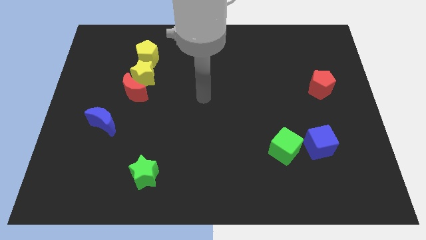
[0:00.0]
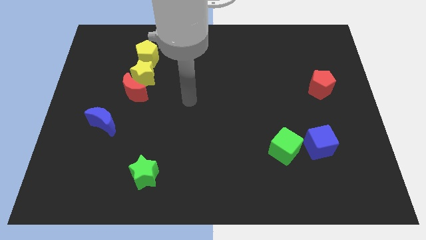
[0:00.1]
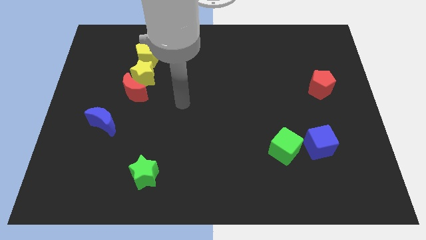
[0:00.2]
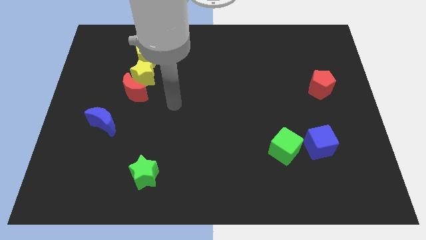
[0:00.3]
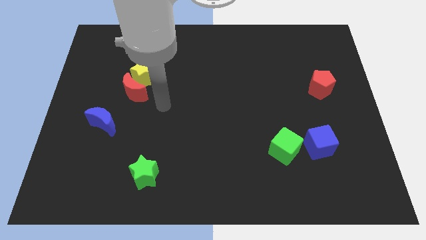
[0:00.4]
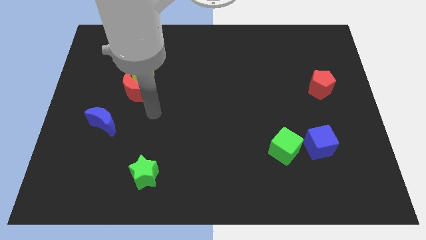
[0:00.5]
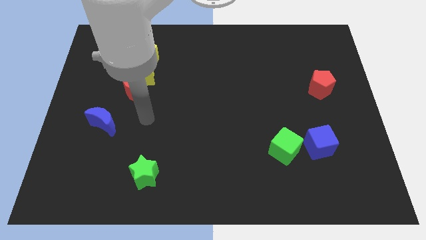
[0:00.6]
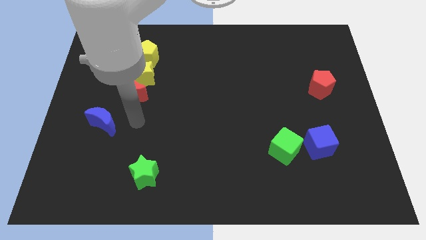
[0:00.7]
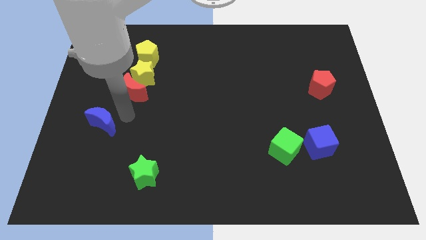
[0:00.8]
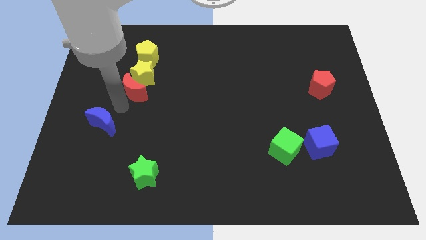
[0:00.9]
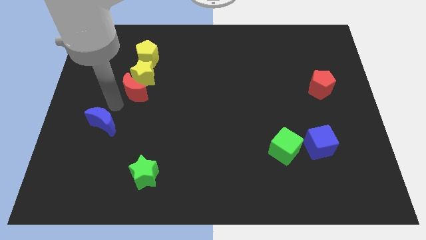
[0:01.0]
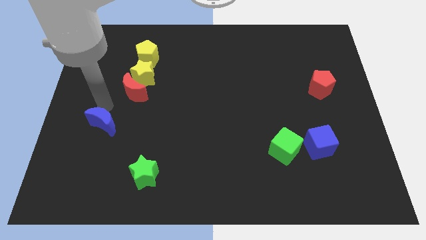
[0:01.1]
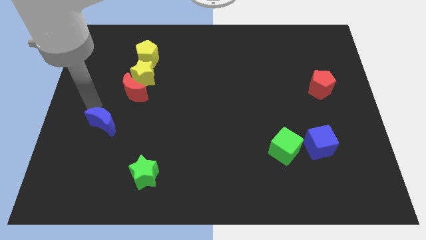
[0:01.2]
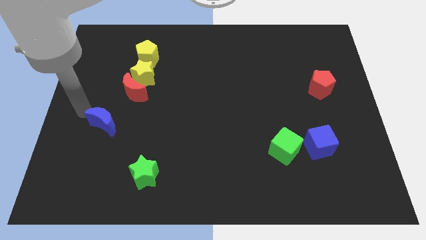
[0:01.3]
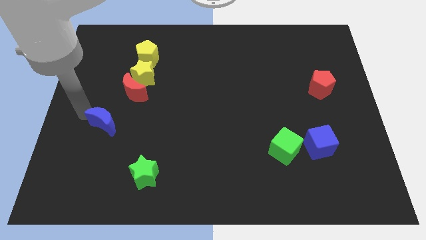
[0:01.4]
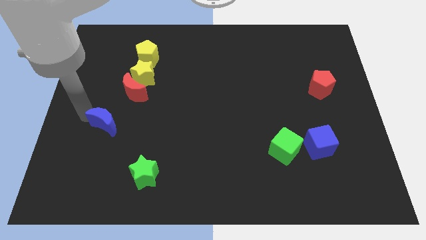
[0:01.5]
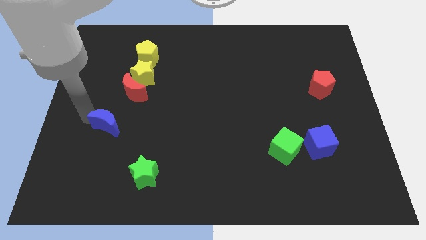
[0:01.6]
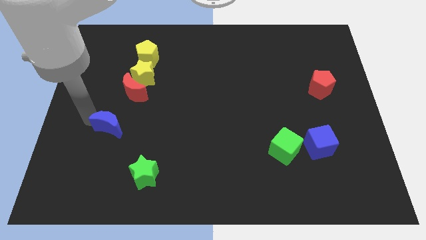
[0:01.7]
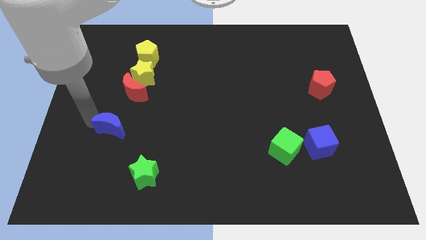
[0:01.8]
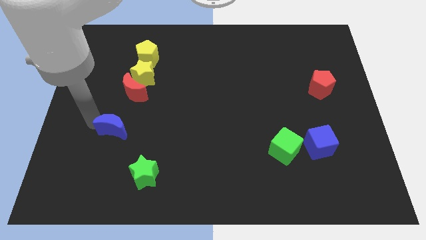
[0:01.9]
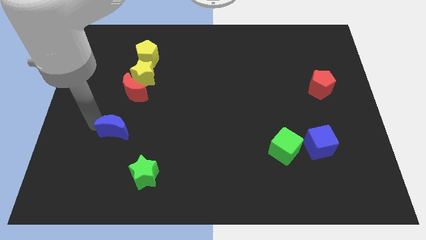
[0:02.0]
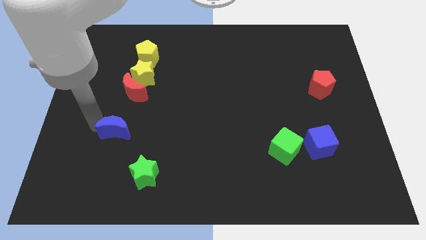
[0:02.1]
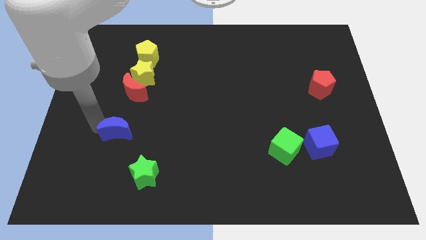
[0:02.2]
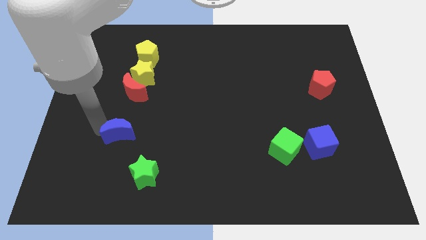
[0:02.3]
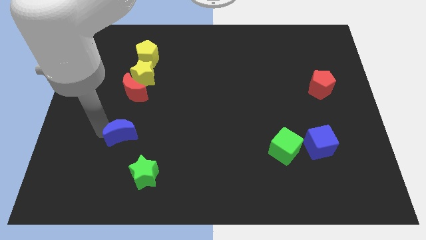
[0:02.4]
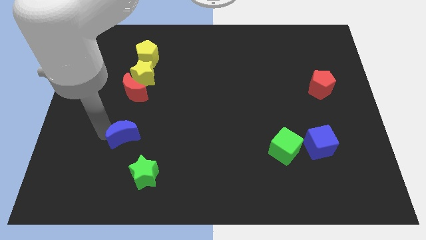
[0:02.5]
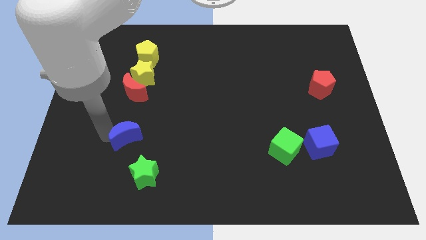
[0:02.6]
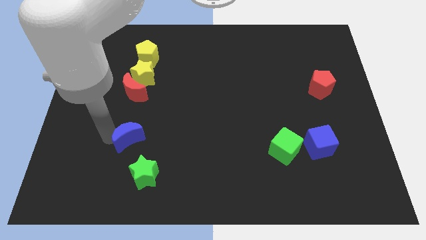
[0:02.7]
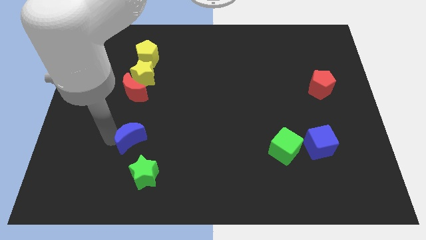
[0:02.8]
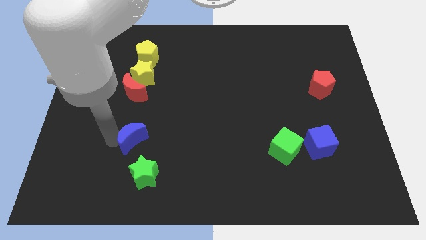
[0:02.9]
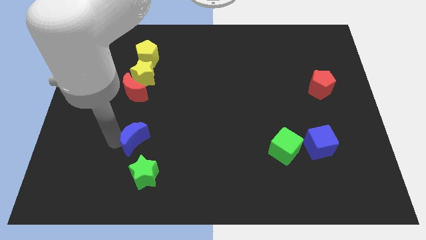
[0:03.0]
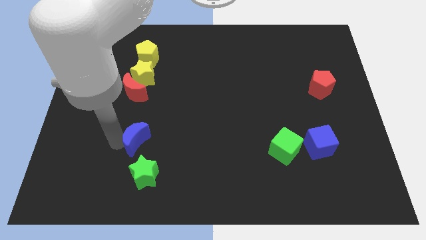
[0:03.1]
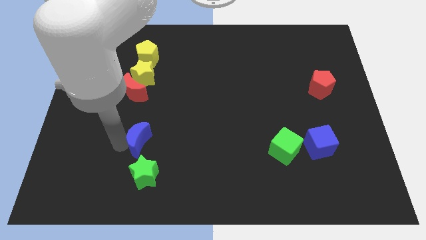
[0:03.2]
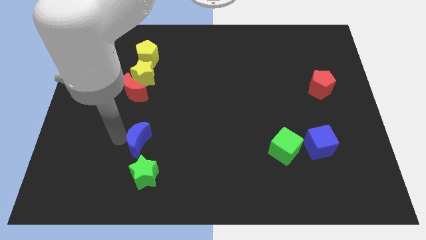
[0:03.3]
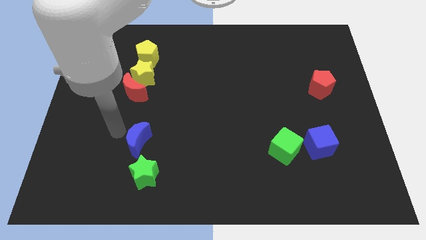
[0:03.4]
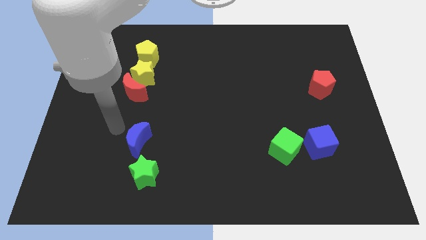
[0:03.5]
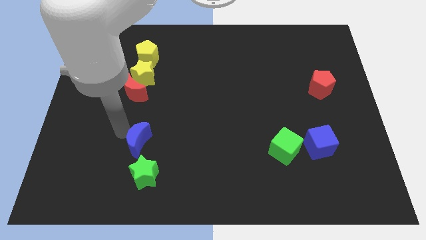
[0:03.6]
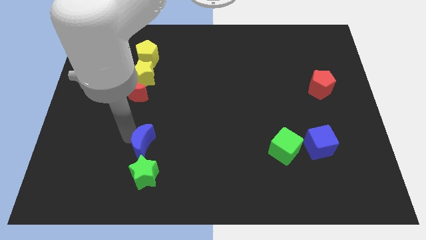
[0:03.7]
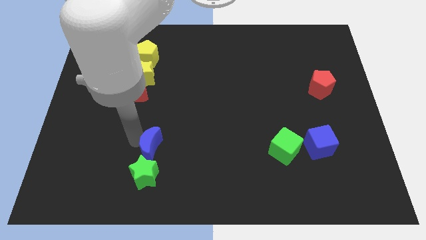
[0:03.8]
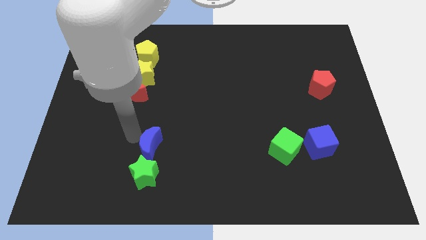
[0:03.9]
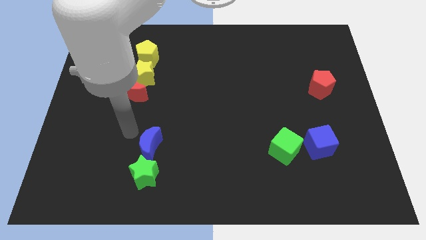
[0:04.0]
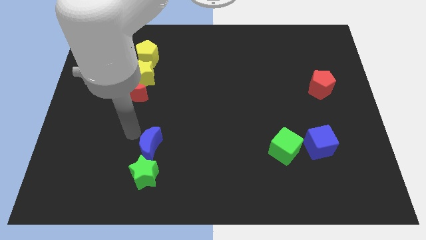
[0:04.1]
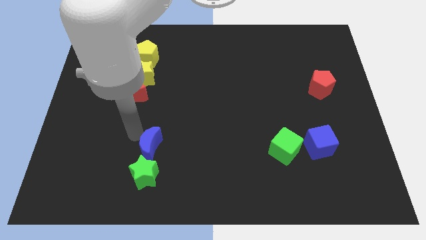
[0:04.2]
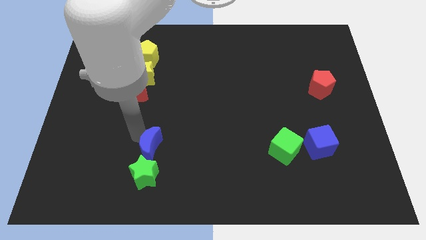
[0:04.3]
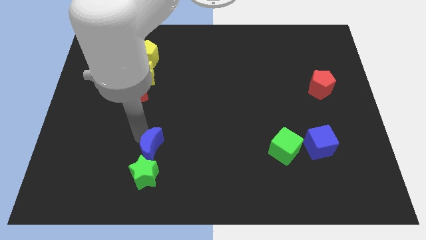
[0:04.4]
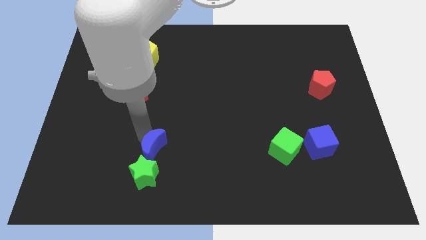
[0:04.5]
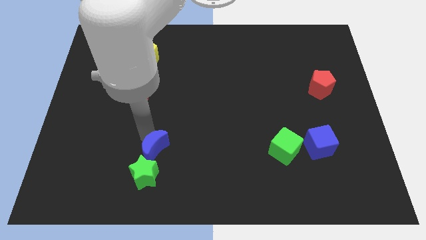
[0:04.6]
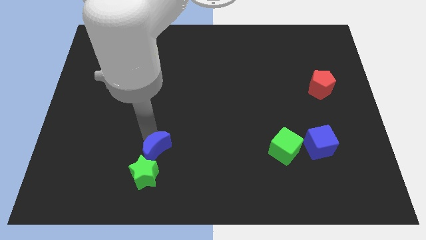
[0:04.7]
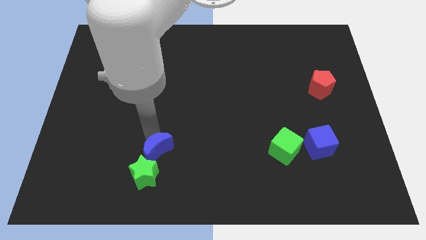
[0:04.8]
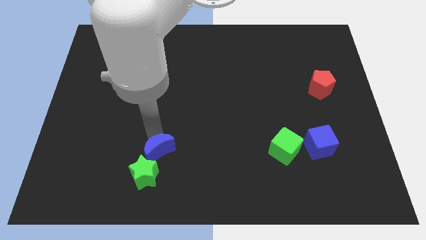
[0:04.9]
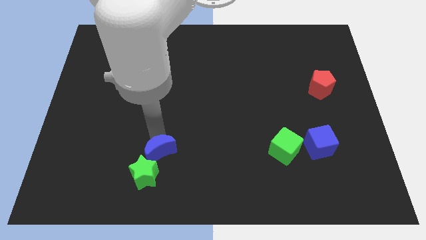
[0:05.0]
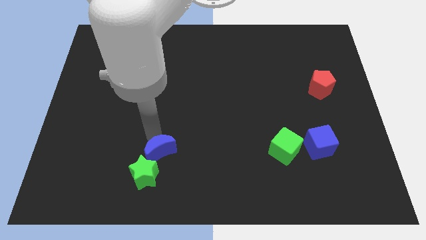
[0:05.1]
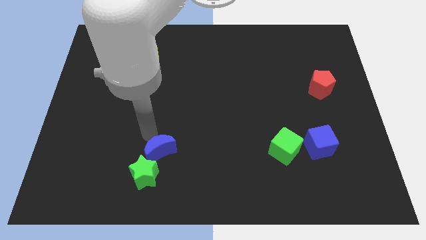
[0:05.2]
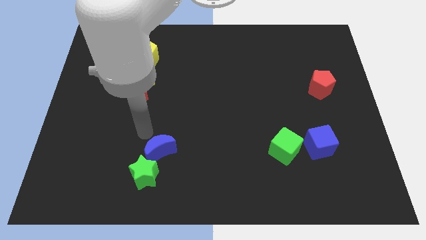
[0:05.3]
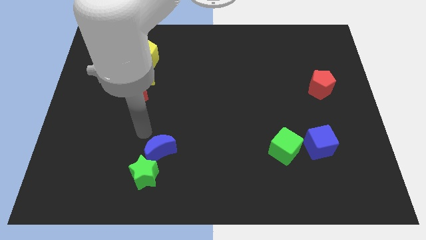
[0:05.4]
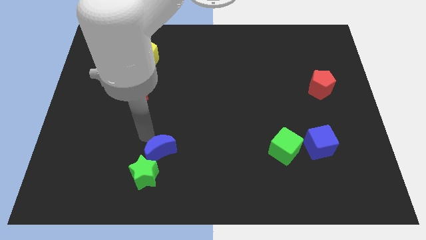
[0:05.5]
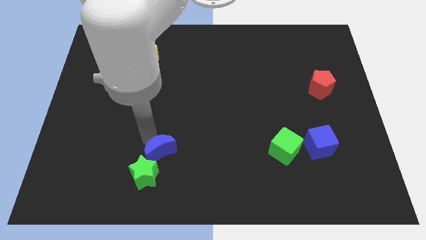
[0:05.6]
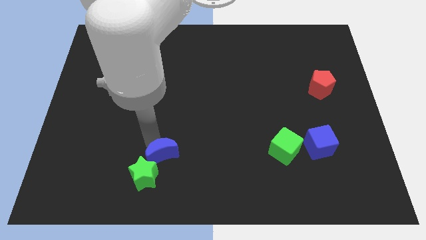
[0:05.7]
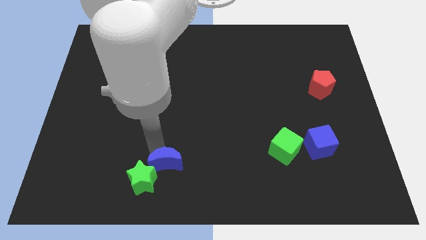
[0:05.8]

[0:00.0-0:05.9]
put the blue moon to the right of the green star

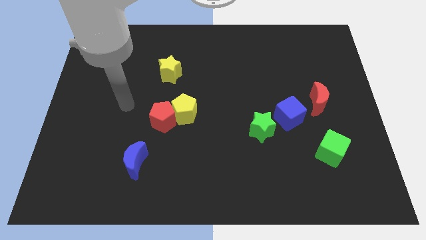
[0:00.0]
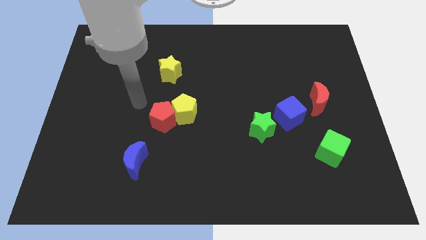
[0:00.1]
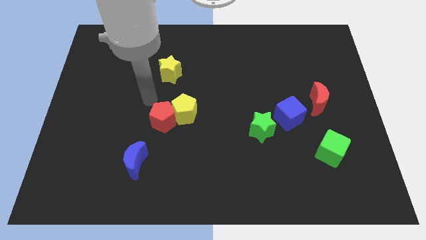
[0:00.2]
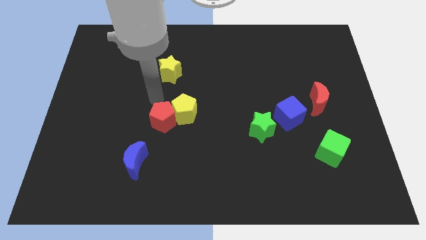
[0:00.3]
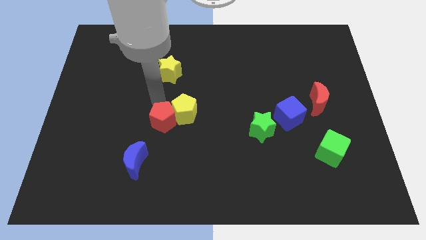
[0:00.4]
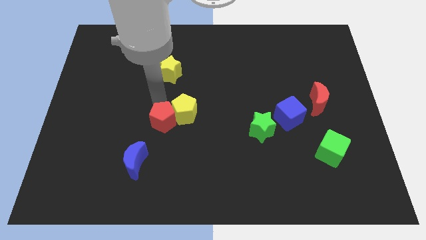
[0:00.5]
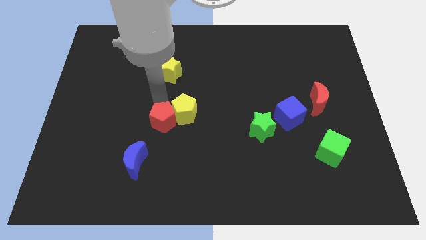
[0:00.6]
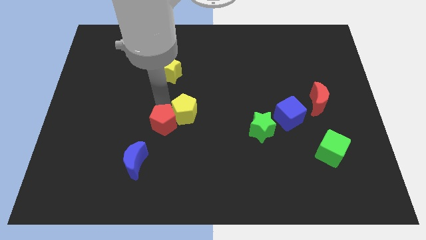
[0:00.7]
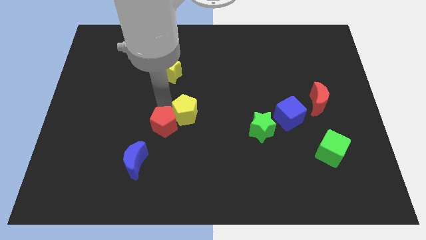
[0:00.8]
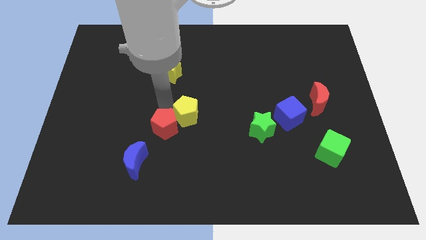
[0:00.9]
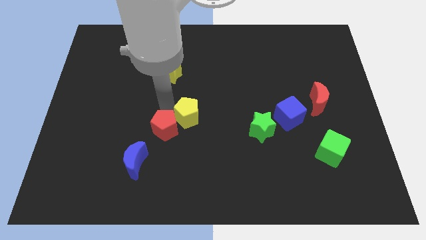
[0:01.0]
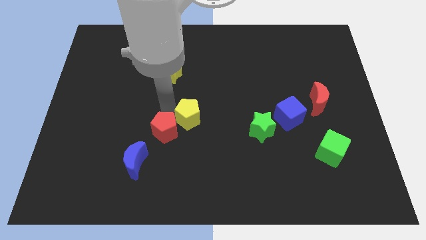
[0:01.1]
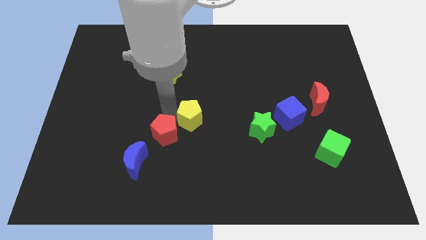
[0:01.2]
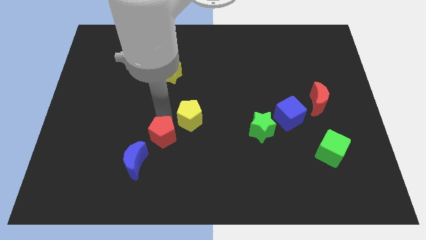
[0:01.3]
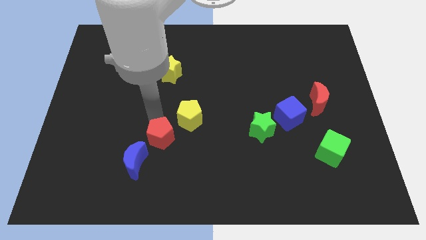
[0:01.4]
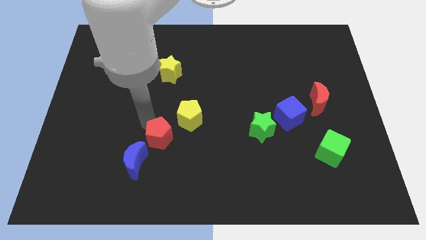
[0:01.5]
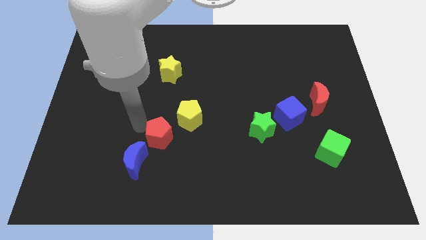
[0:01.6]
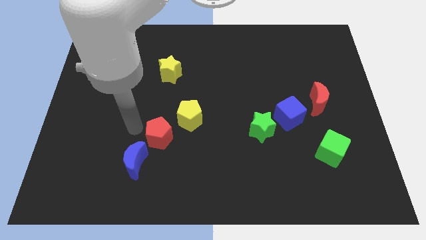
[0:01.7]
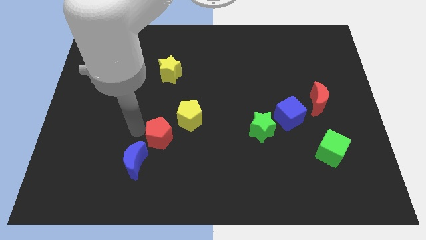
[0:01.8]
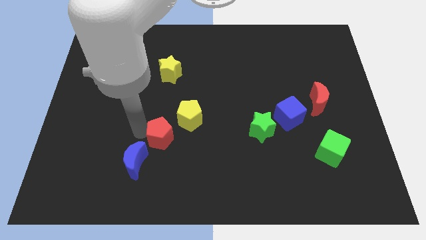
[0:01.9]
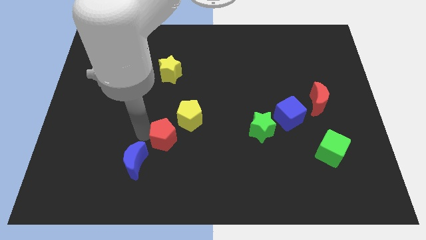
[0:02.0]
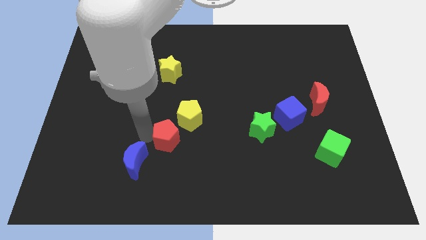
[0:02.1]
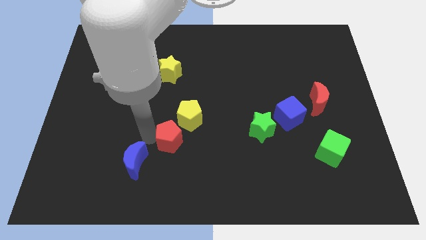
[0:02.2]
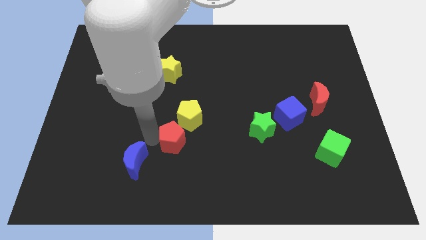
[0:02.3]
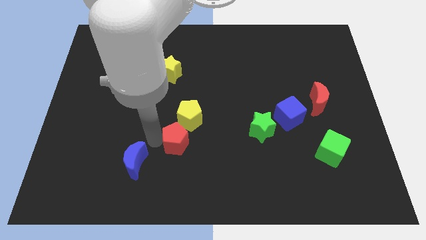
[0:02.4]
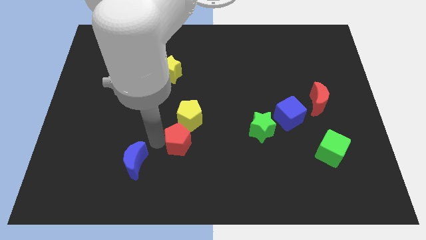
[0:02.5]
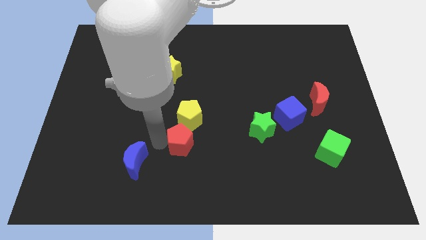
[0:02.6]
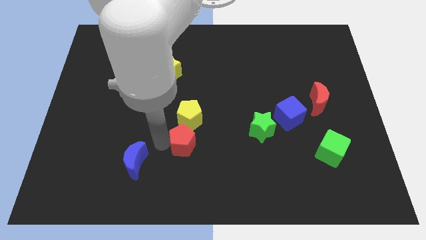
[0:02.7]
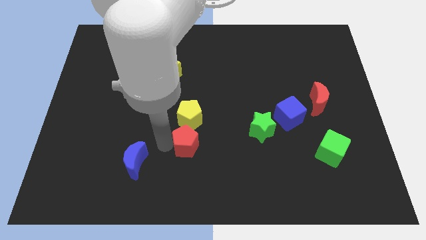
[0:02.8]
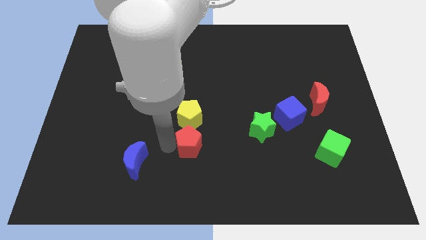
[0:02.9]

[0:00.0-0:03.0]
move the red pentagon diagonally down and to the right of the yellow pentagon
